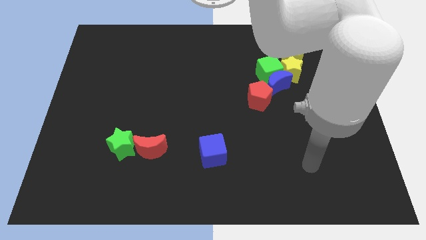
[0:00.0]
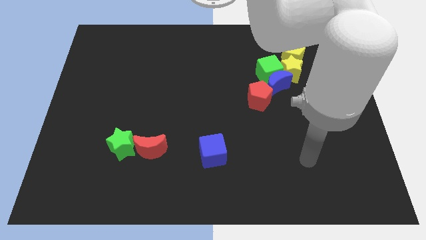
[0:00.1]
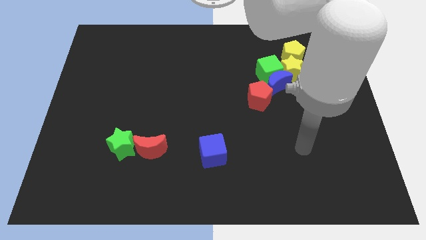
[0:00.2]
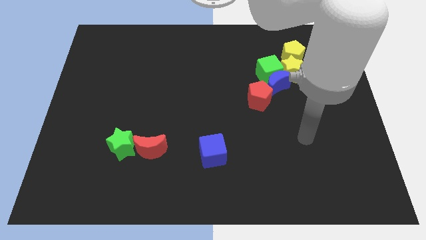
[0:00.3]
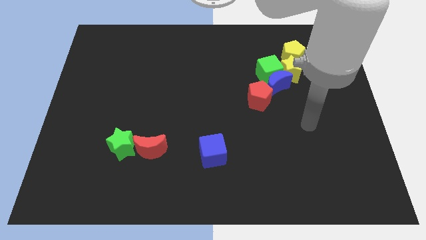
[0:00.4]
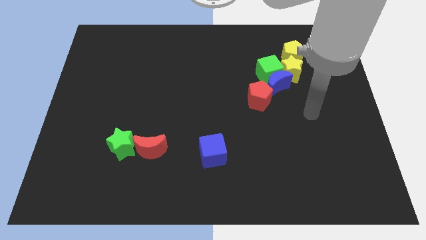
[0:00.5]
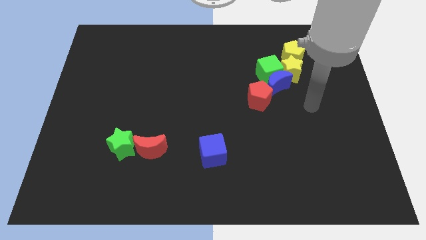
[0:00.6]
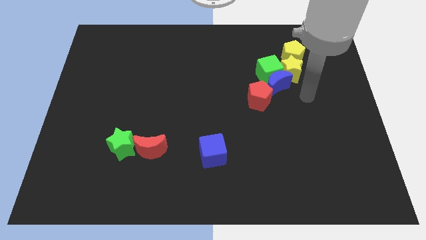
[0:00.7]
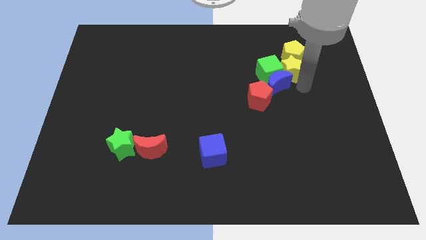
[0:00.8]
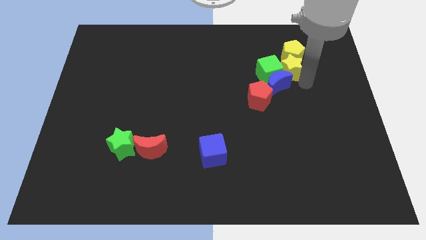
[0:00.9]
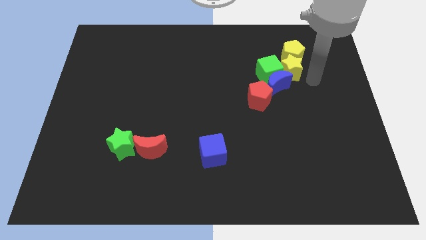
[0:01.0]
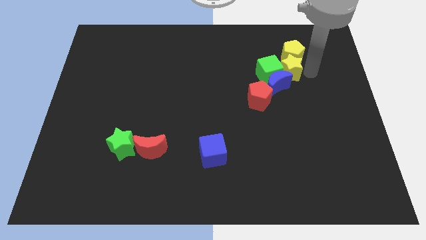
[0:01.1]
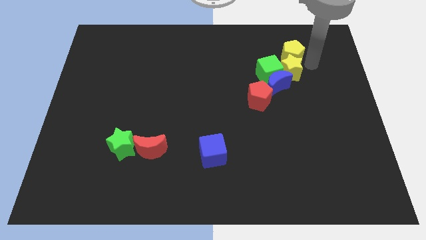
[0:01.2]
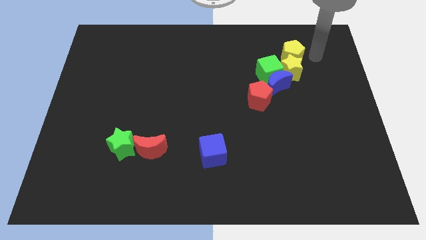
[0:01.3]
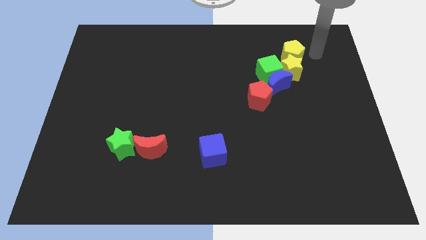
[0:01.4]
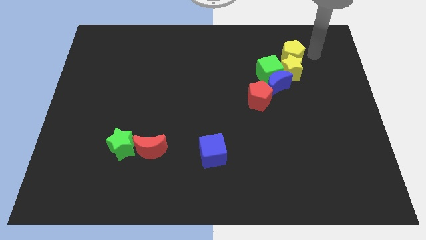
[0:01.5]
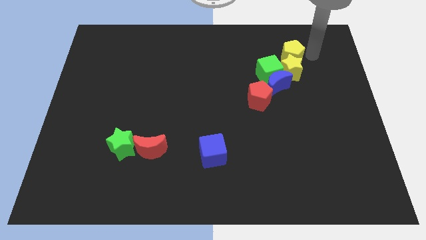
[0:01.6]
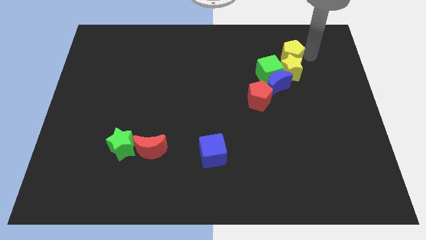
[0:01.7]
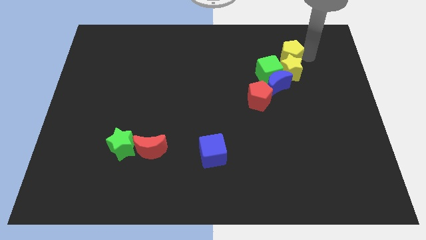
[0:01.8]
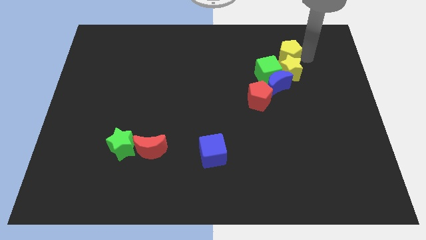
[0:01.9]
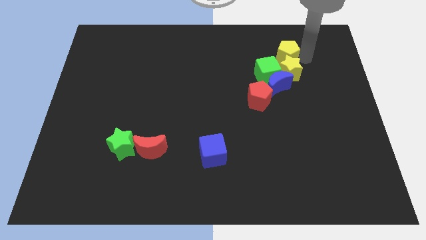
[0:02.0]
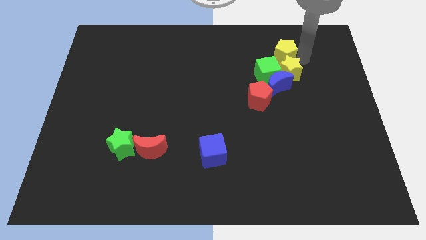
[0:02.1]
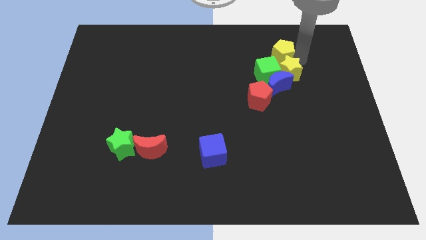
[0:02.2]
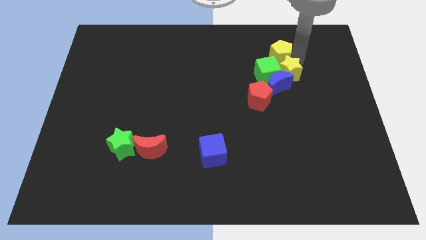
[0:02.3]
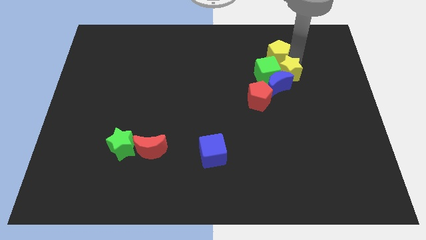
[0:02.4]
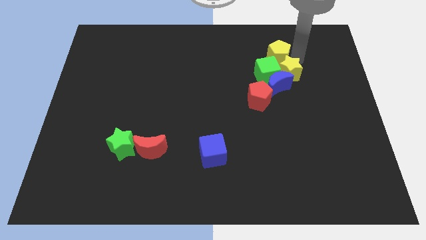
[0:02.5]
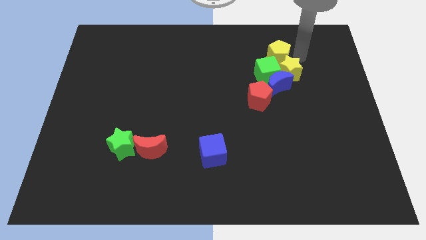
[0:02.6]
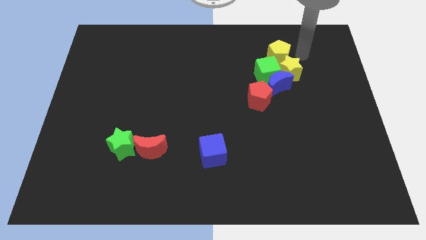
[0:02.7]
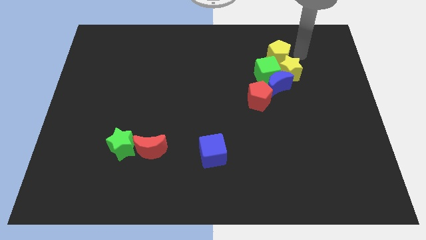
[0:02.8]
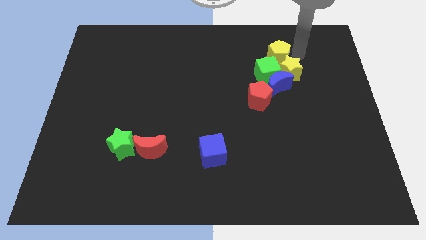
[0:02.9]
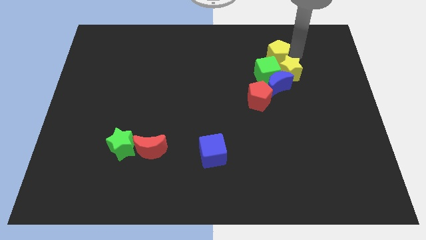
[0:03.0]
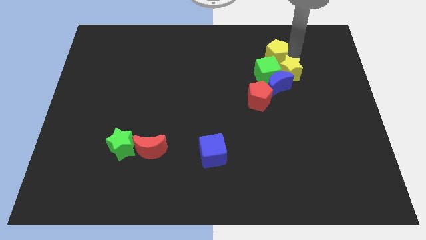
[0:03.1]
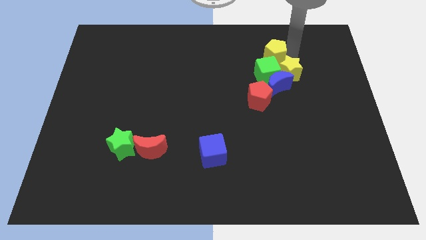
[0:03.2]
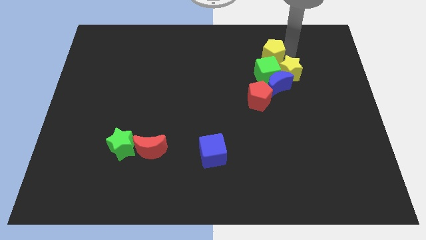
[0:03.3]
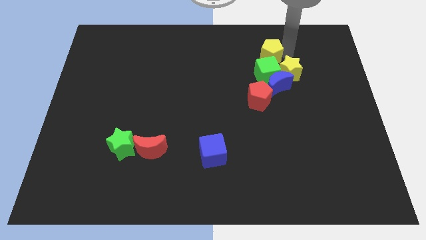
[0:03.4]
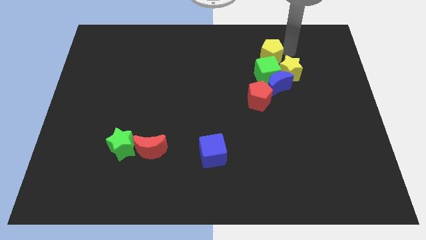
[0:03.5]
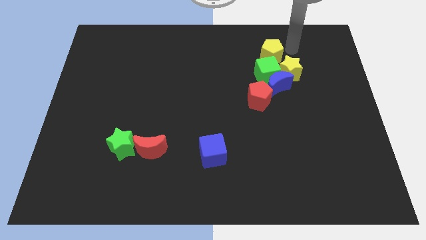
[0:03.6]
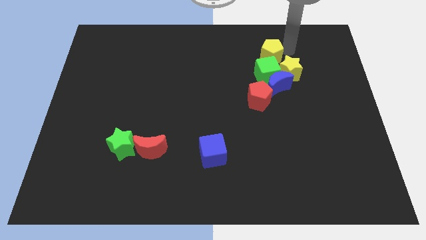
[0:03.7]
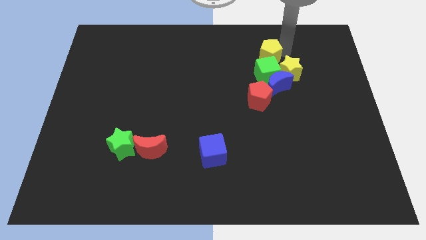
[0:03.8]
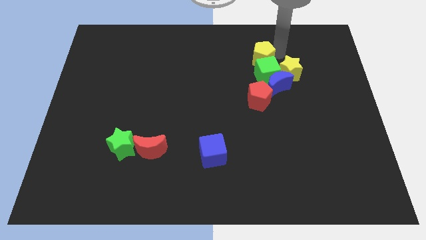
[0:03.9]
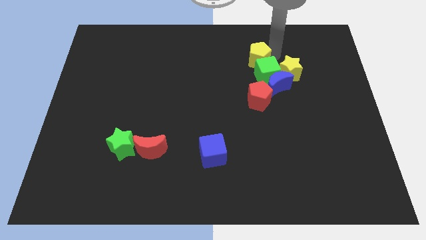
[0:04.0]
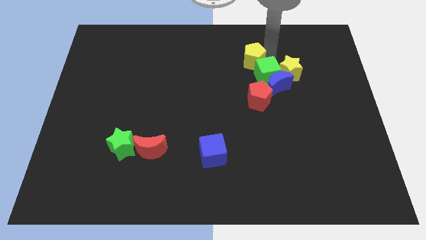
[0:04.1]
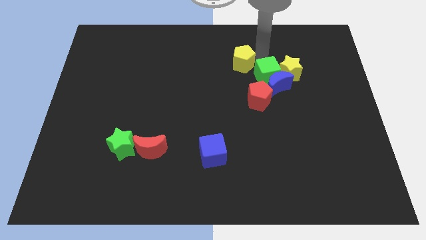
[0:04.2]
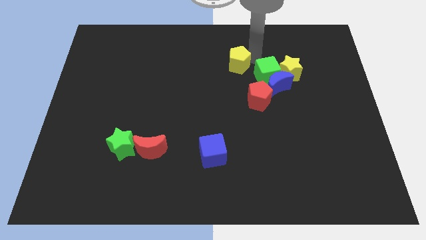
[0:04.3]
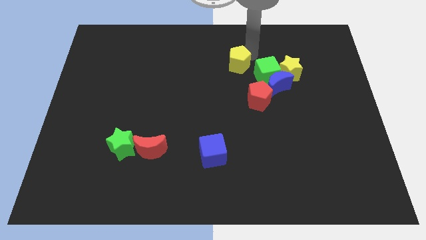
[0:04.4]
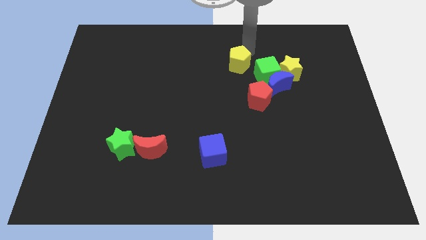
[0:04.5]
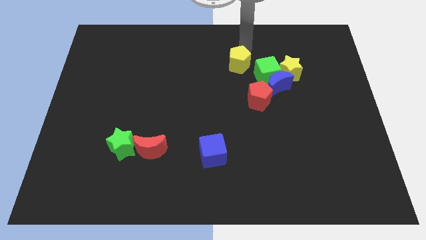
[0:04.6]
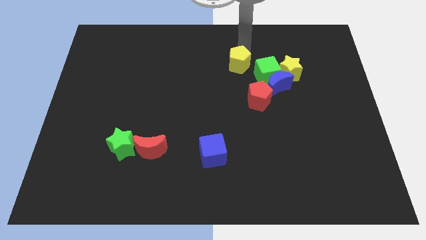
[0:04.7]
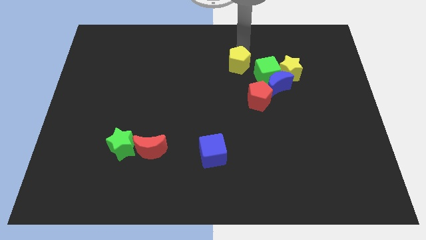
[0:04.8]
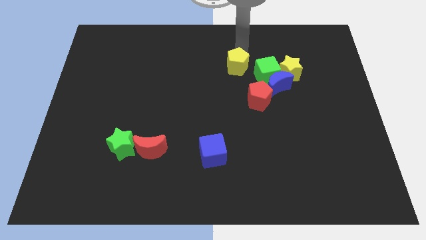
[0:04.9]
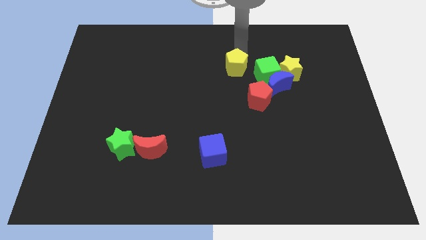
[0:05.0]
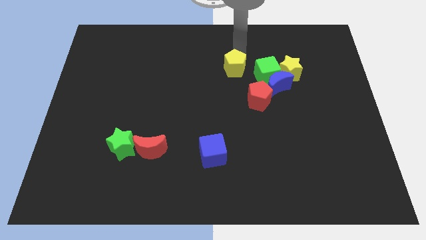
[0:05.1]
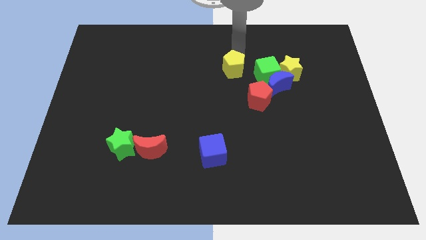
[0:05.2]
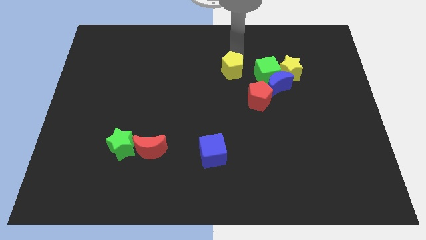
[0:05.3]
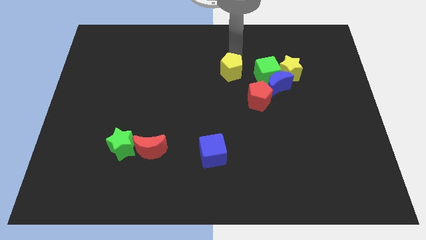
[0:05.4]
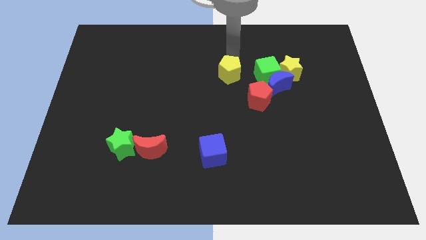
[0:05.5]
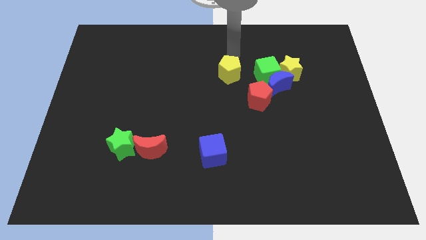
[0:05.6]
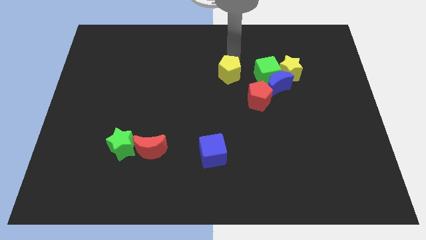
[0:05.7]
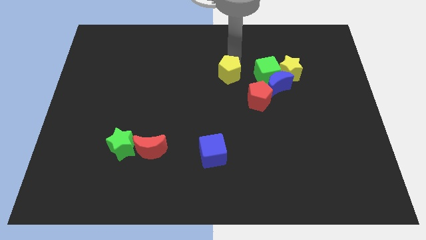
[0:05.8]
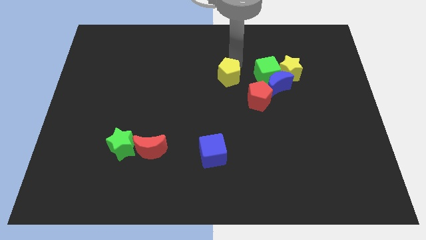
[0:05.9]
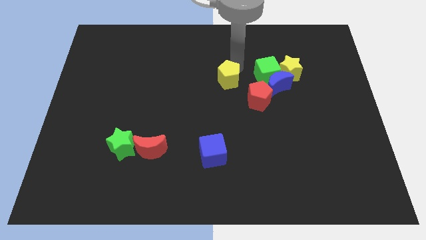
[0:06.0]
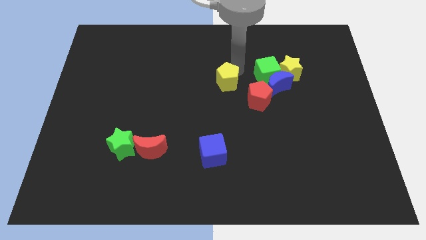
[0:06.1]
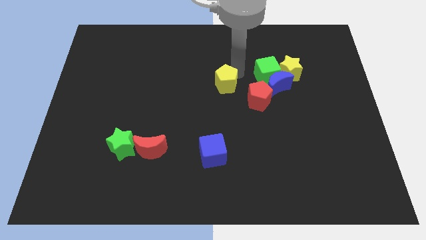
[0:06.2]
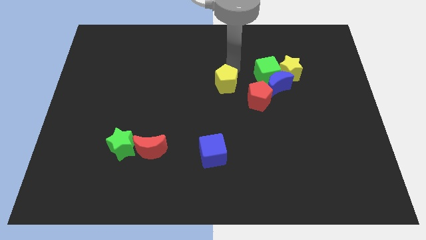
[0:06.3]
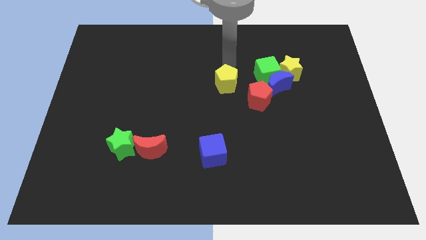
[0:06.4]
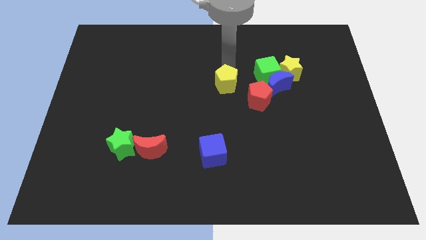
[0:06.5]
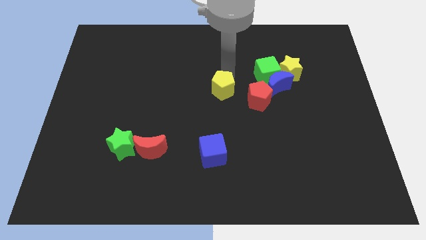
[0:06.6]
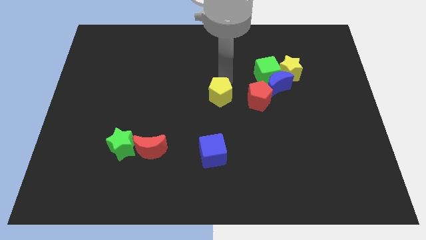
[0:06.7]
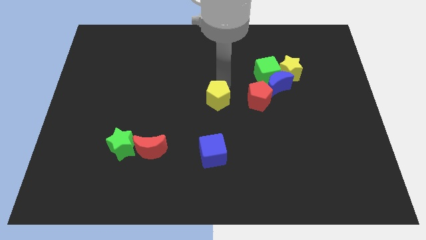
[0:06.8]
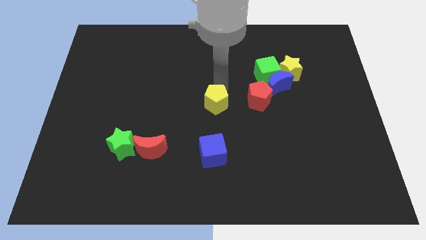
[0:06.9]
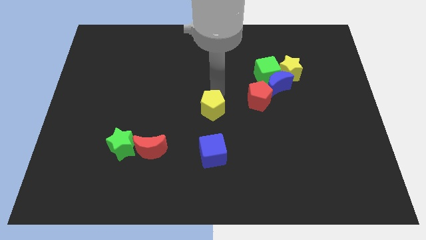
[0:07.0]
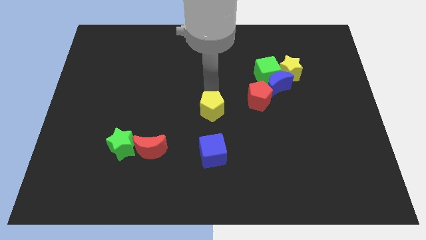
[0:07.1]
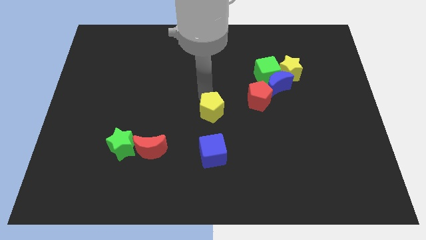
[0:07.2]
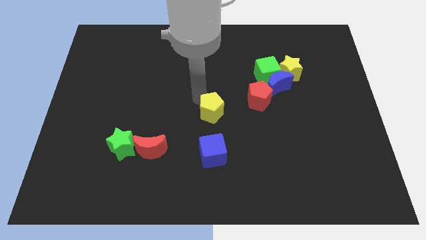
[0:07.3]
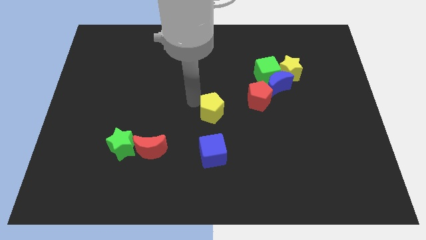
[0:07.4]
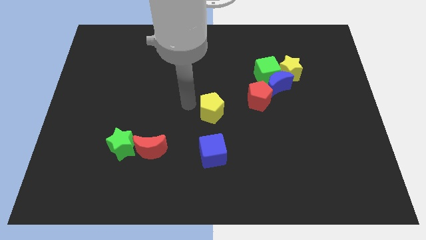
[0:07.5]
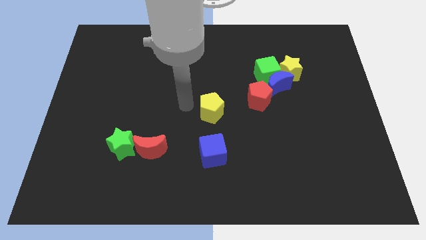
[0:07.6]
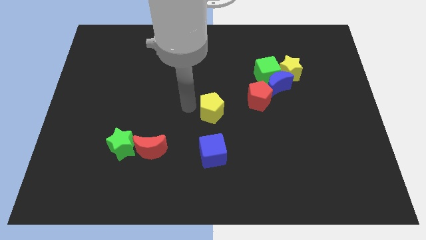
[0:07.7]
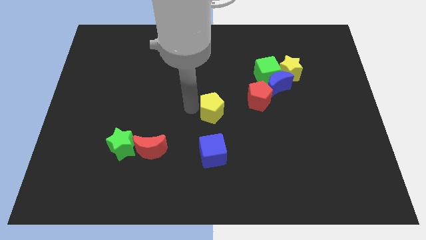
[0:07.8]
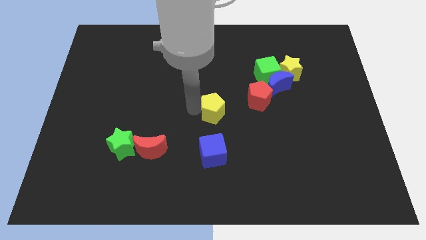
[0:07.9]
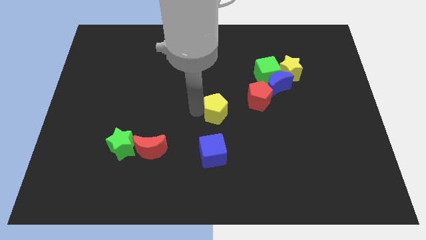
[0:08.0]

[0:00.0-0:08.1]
push the yellow pentagon diagonally down and to the left of the red pentagon
